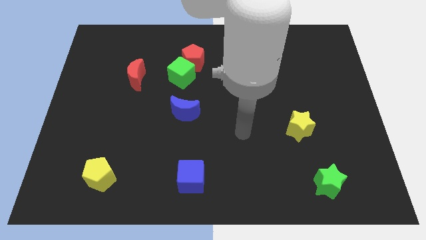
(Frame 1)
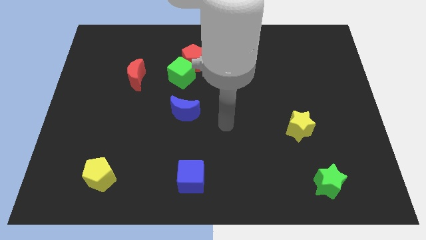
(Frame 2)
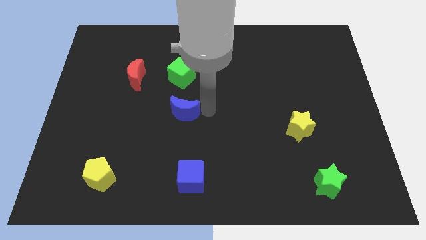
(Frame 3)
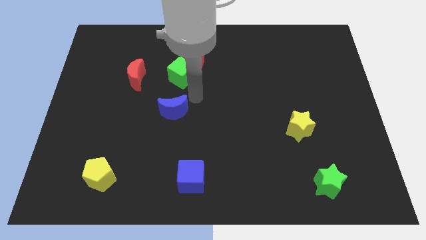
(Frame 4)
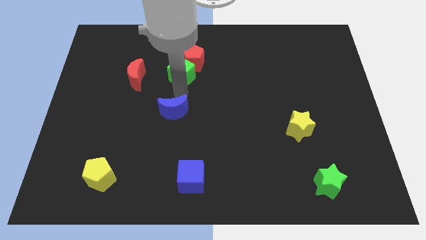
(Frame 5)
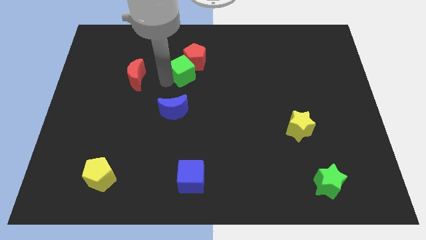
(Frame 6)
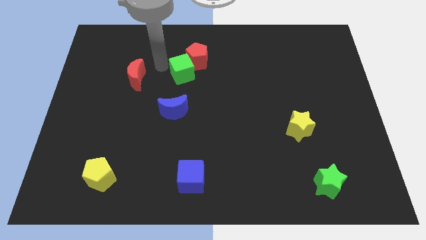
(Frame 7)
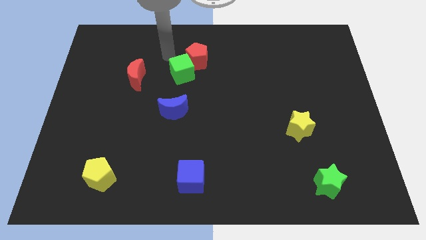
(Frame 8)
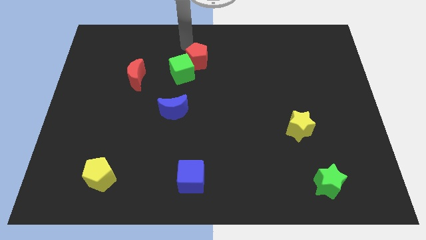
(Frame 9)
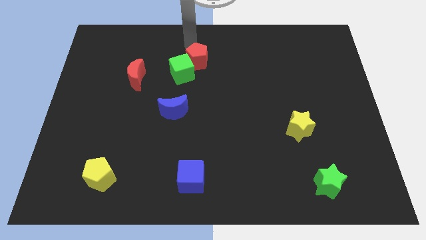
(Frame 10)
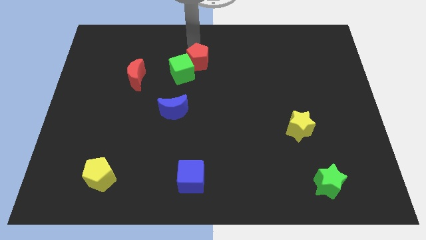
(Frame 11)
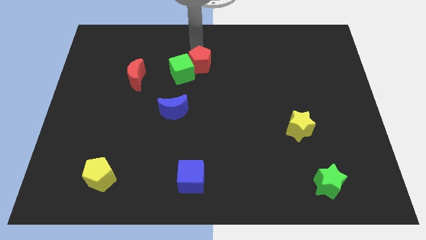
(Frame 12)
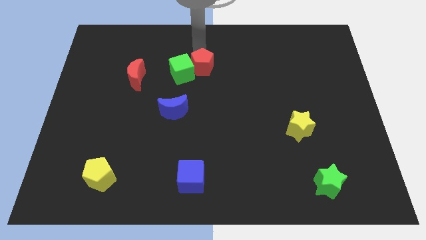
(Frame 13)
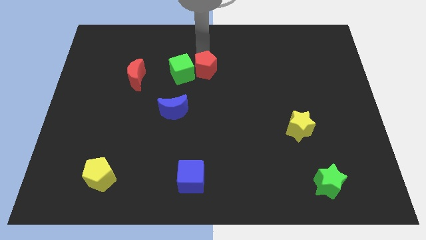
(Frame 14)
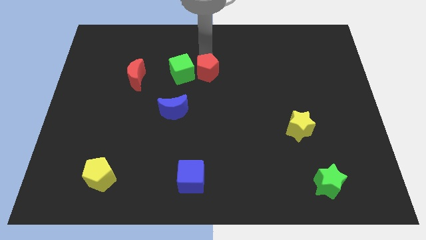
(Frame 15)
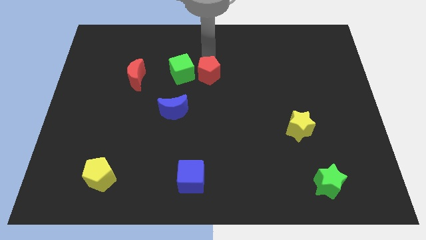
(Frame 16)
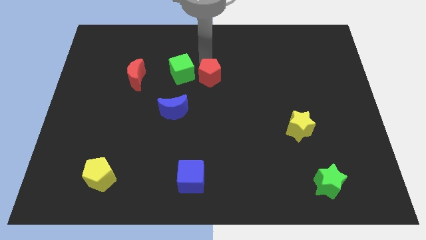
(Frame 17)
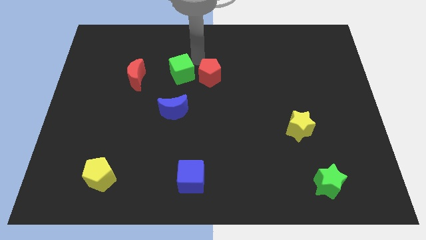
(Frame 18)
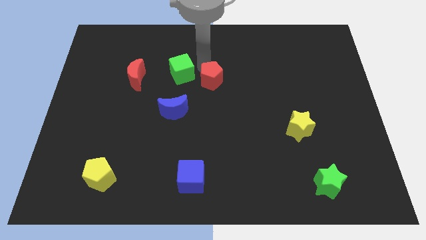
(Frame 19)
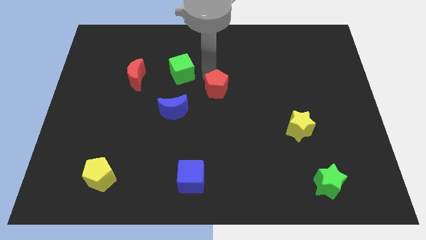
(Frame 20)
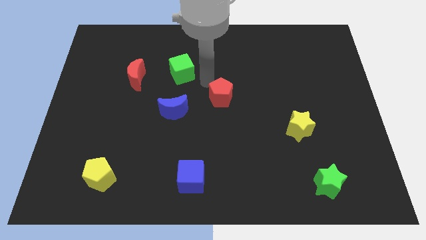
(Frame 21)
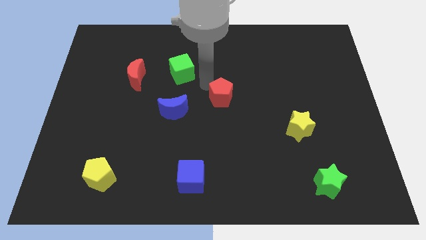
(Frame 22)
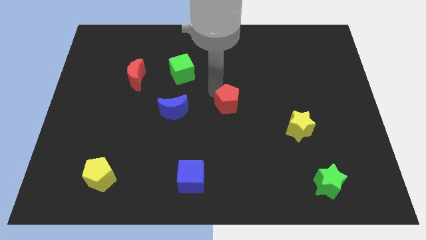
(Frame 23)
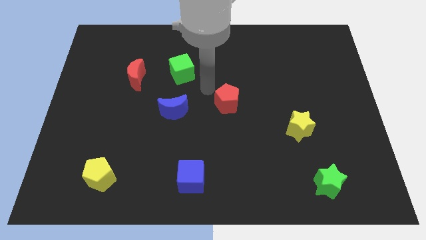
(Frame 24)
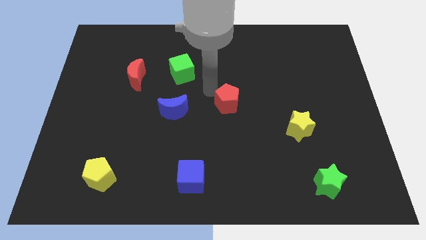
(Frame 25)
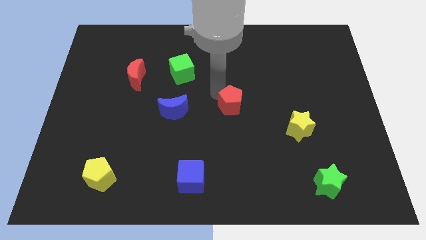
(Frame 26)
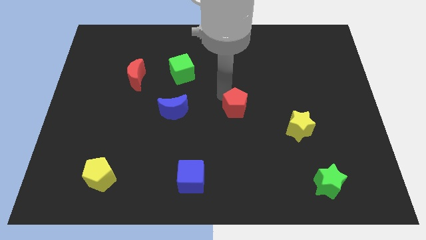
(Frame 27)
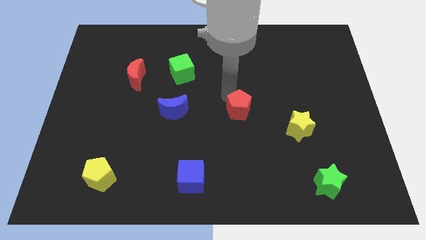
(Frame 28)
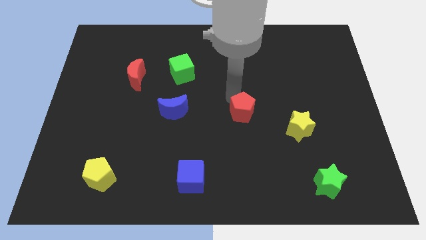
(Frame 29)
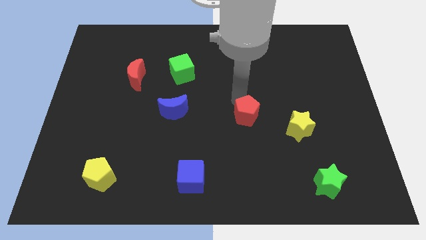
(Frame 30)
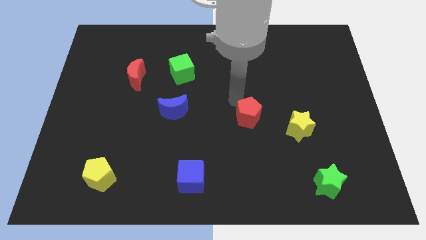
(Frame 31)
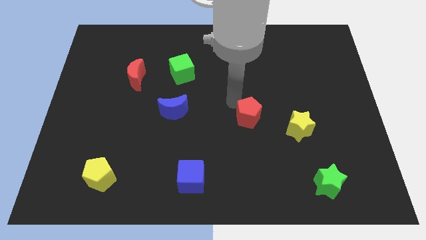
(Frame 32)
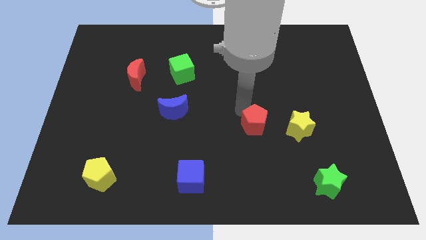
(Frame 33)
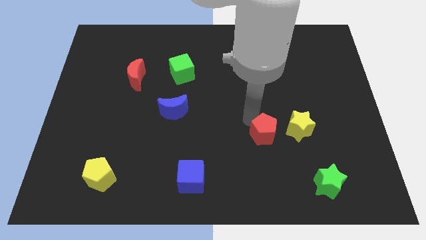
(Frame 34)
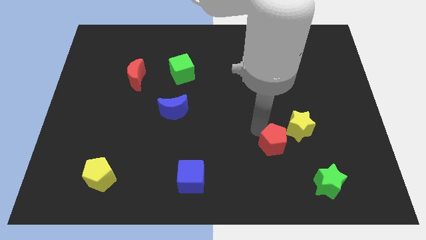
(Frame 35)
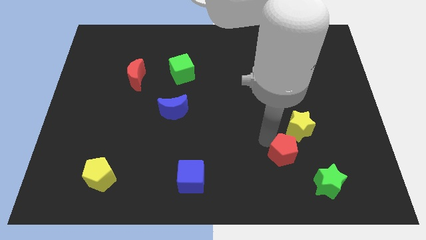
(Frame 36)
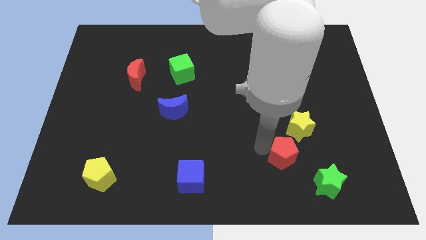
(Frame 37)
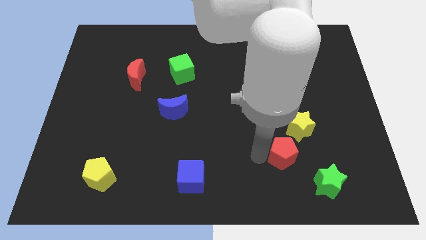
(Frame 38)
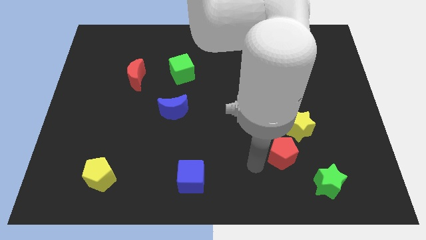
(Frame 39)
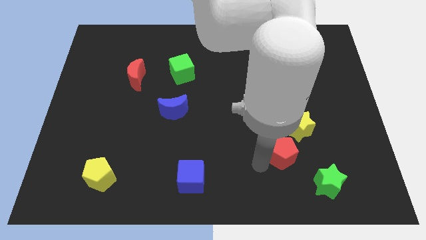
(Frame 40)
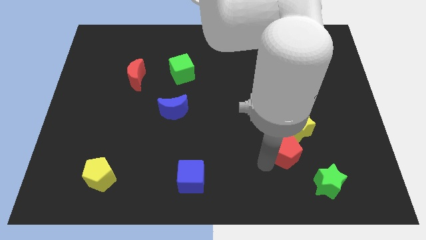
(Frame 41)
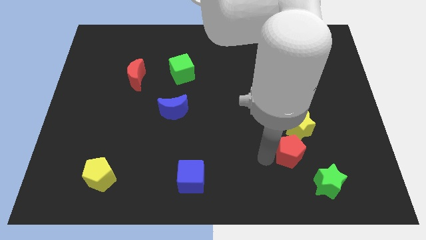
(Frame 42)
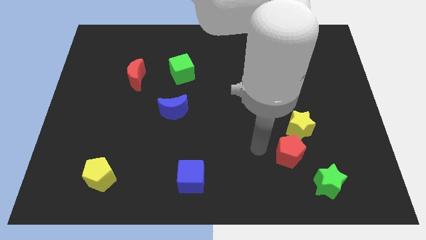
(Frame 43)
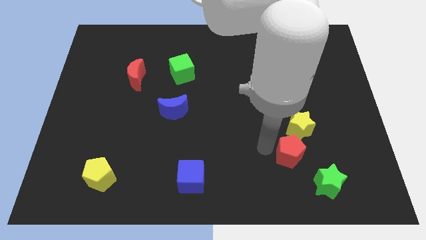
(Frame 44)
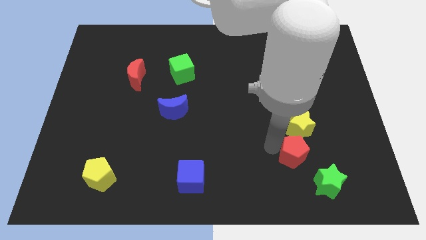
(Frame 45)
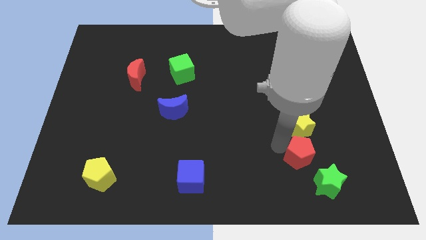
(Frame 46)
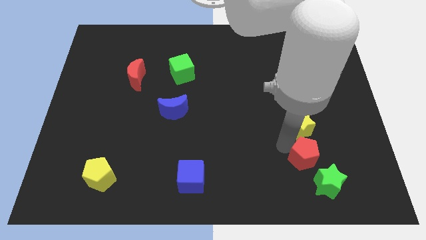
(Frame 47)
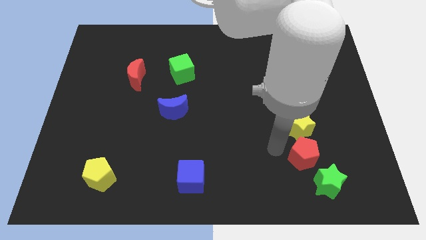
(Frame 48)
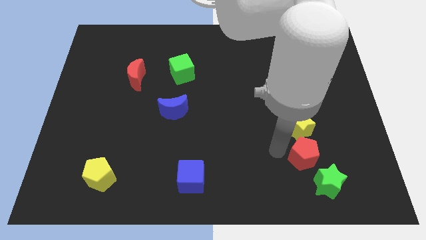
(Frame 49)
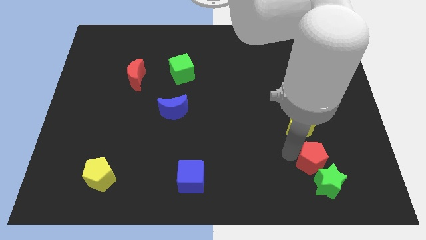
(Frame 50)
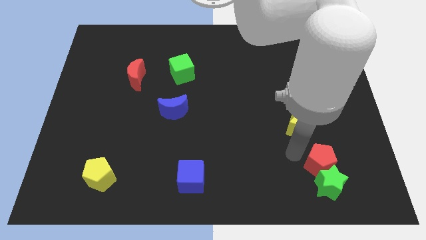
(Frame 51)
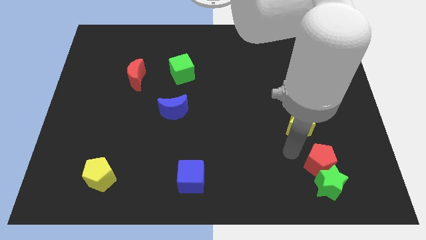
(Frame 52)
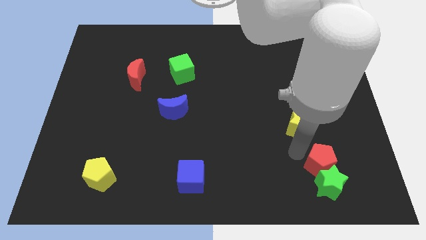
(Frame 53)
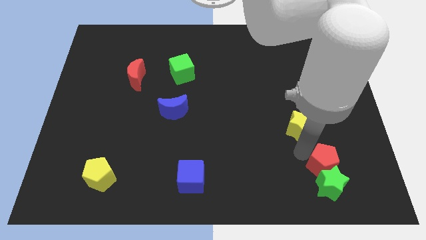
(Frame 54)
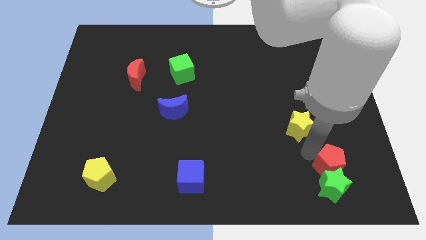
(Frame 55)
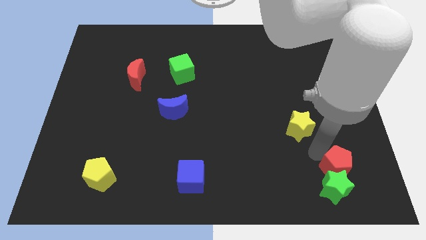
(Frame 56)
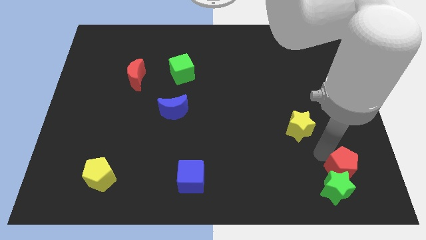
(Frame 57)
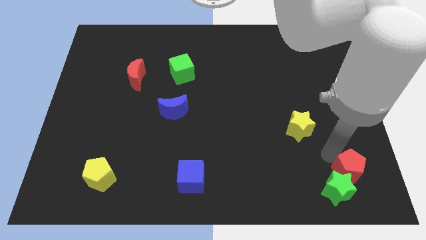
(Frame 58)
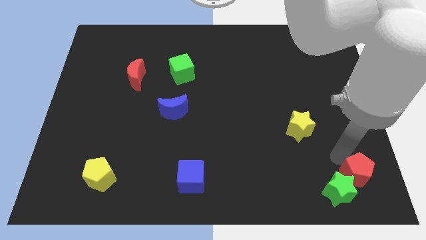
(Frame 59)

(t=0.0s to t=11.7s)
push the red pentagon to the bottom right

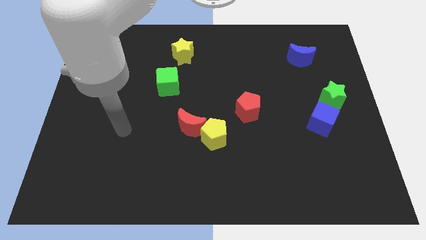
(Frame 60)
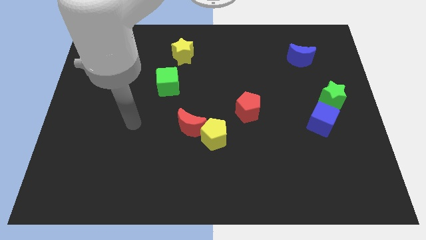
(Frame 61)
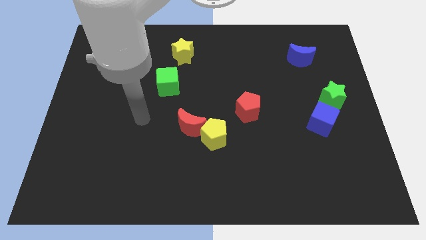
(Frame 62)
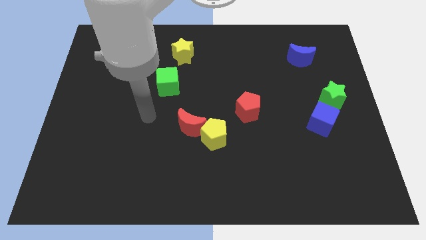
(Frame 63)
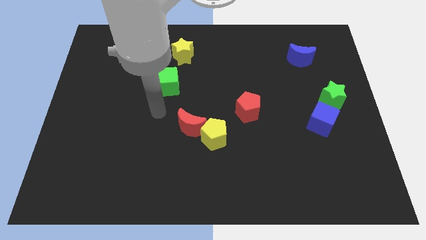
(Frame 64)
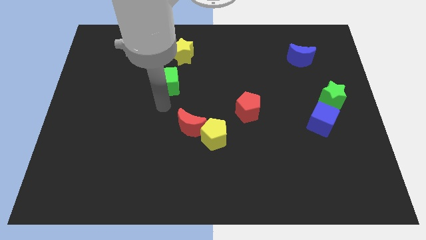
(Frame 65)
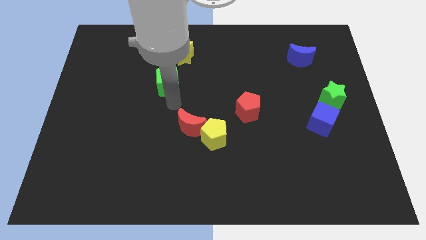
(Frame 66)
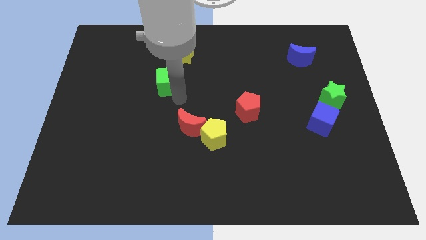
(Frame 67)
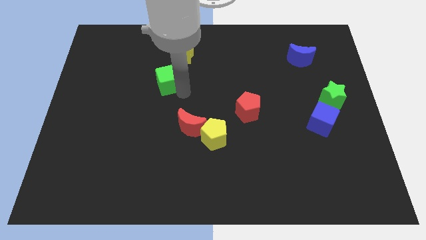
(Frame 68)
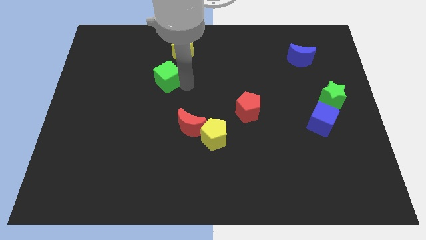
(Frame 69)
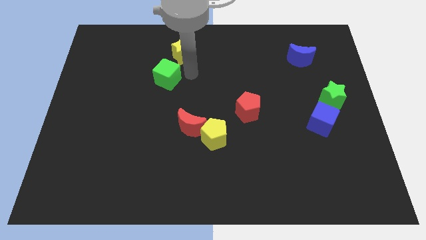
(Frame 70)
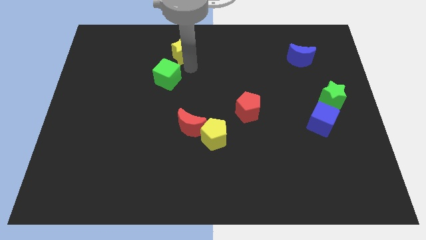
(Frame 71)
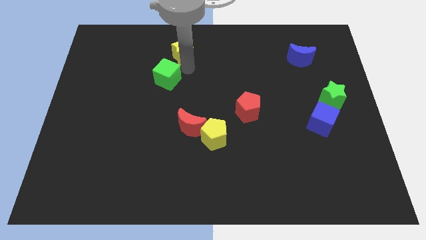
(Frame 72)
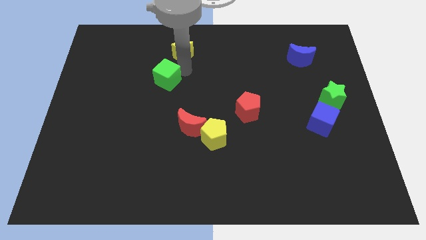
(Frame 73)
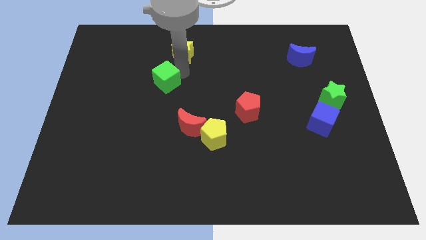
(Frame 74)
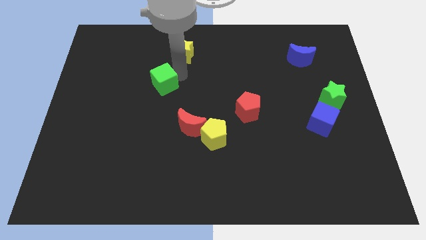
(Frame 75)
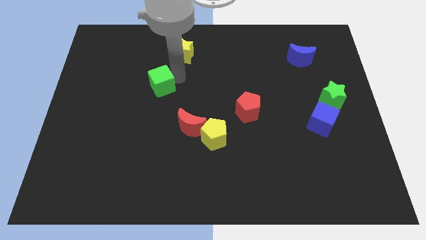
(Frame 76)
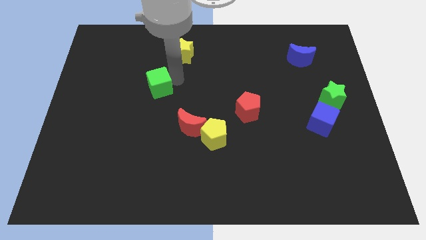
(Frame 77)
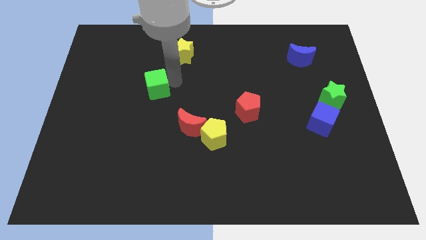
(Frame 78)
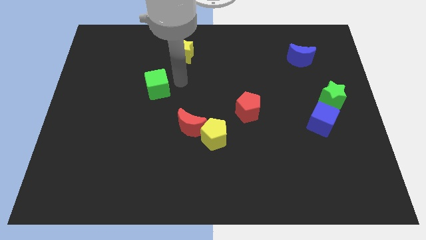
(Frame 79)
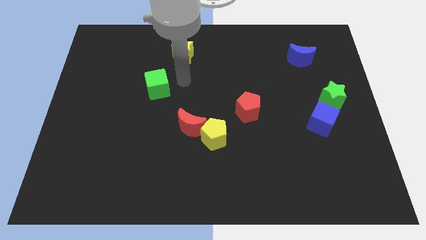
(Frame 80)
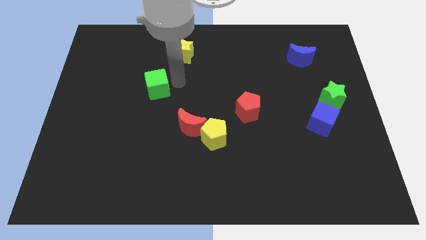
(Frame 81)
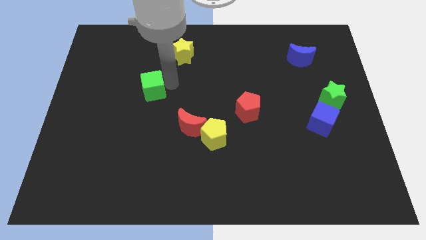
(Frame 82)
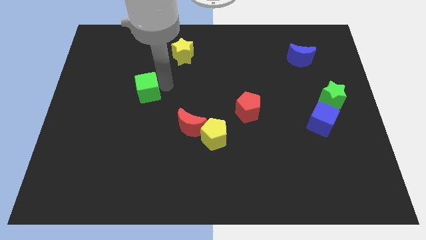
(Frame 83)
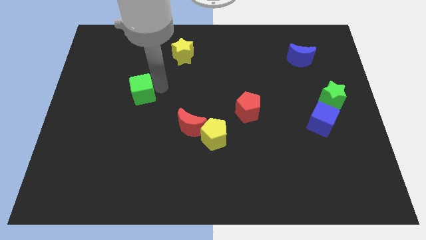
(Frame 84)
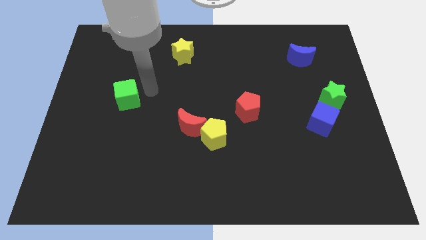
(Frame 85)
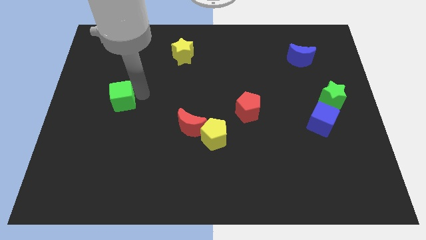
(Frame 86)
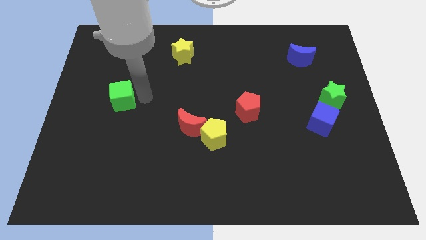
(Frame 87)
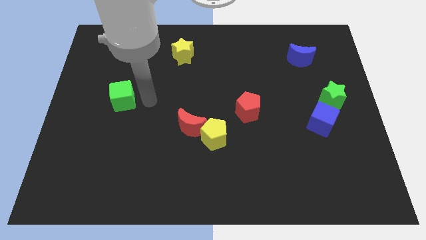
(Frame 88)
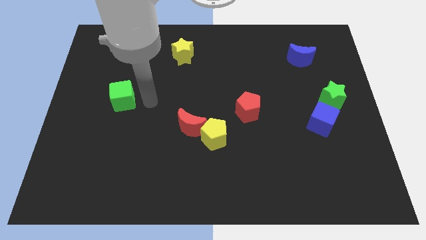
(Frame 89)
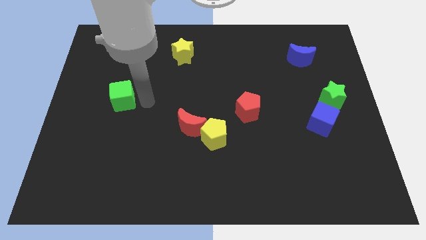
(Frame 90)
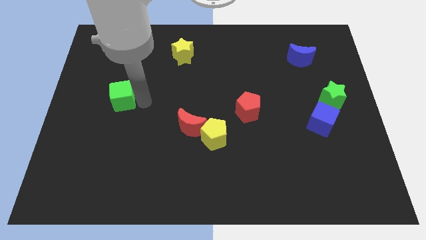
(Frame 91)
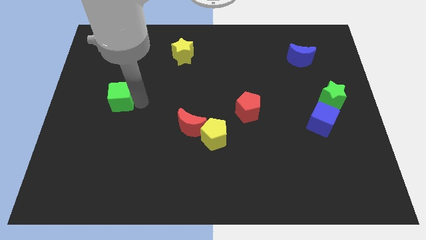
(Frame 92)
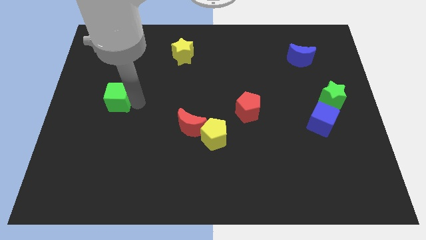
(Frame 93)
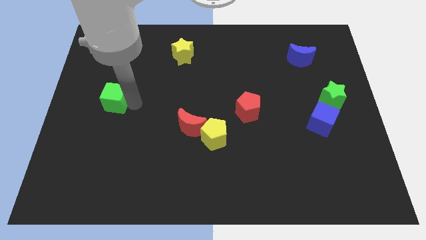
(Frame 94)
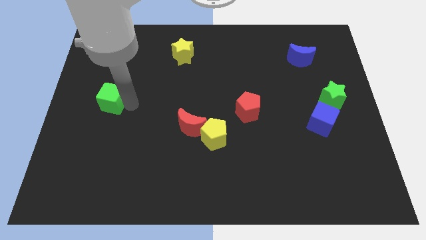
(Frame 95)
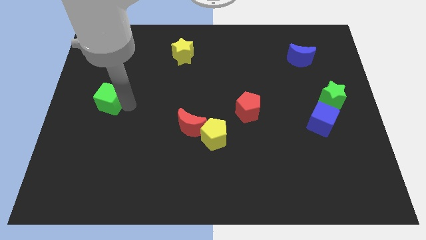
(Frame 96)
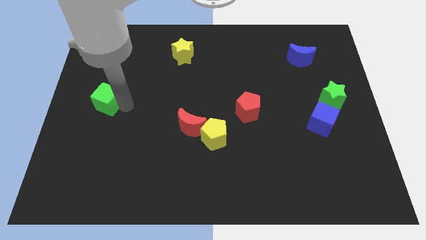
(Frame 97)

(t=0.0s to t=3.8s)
put the green cube to the left side
